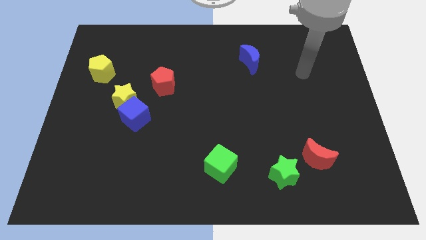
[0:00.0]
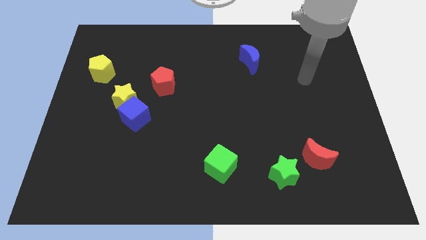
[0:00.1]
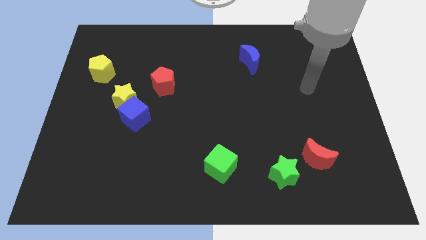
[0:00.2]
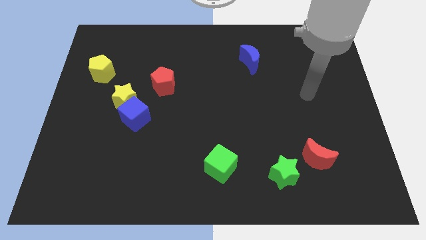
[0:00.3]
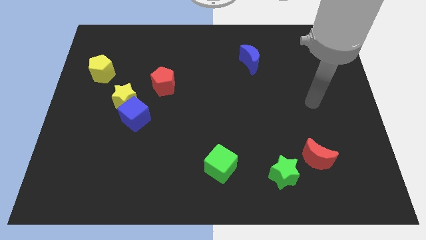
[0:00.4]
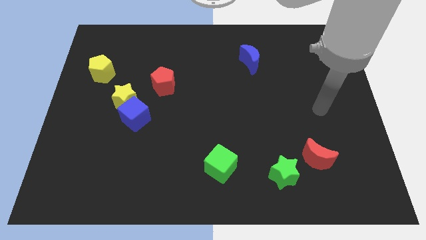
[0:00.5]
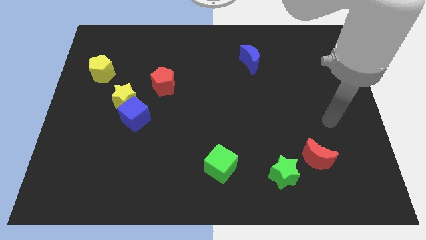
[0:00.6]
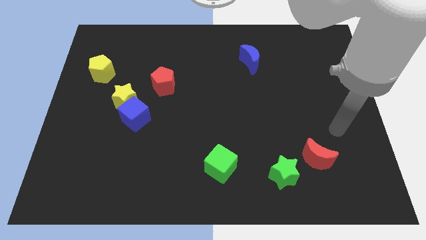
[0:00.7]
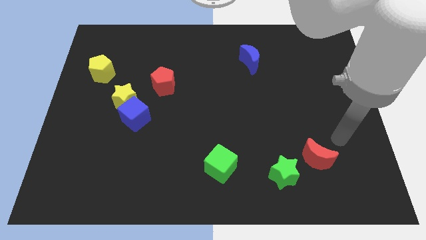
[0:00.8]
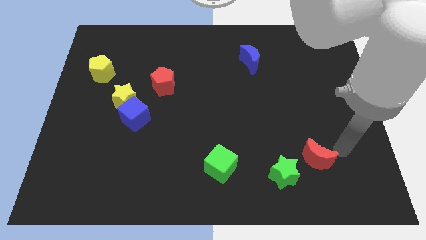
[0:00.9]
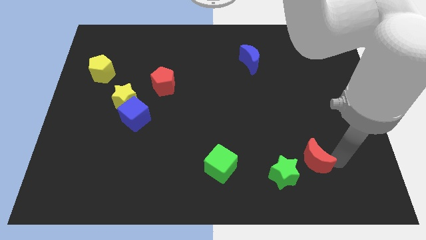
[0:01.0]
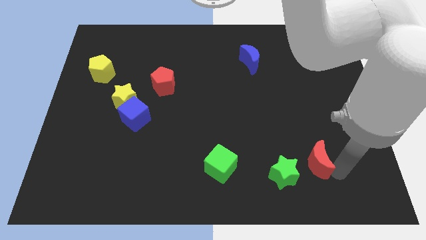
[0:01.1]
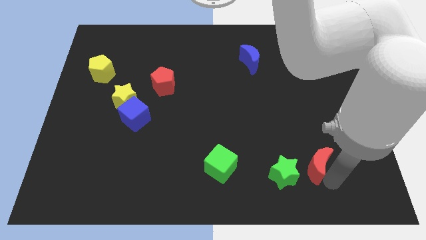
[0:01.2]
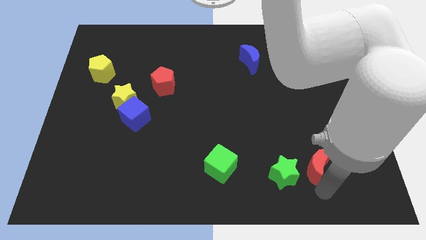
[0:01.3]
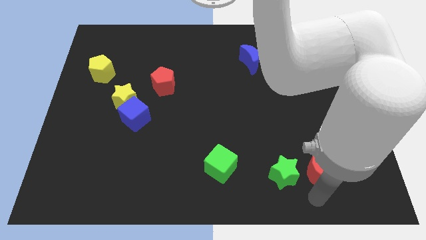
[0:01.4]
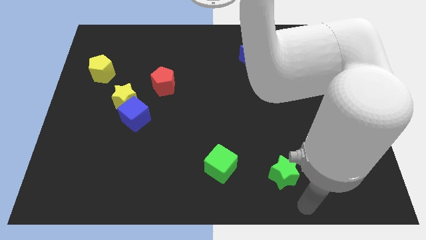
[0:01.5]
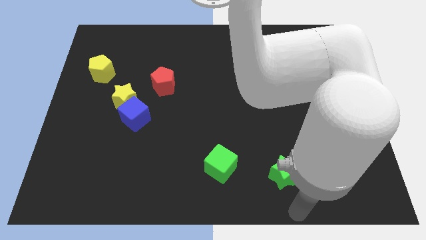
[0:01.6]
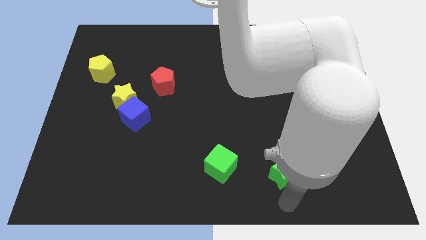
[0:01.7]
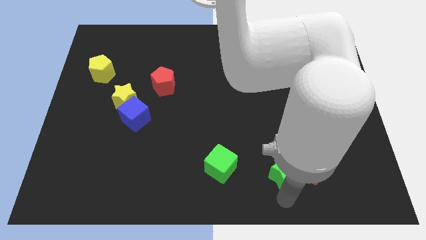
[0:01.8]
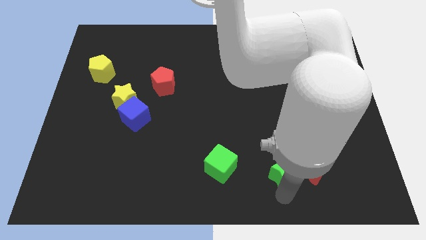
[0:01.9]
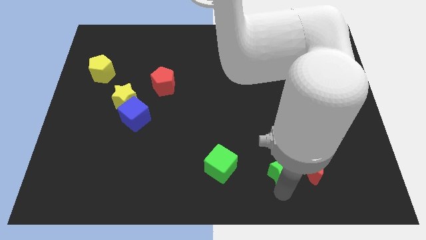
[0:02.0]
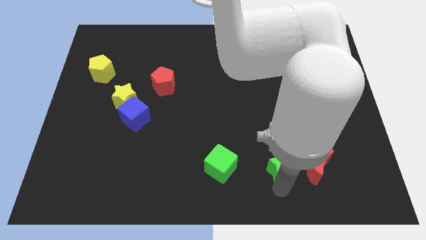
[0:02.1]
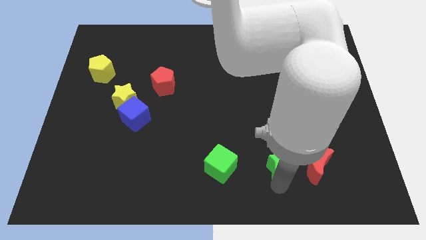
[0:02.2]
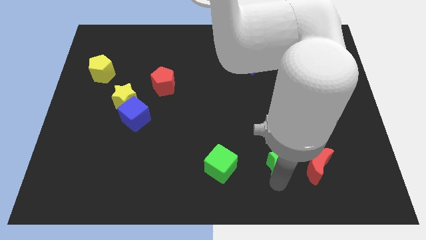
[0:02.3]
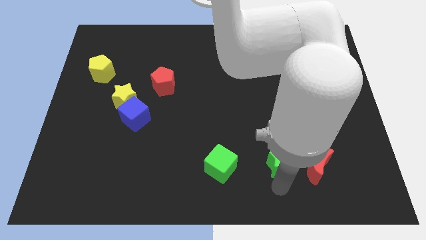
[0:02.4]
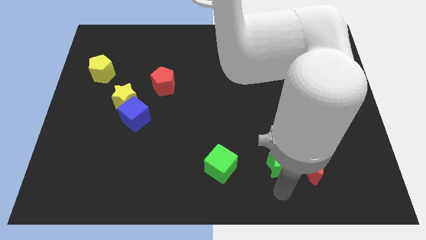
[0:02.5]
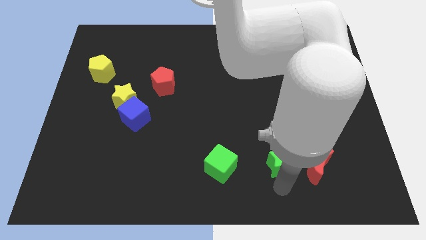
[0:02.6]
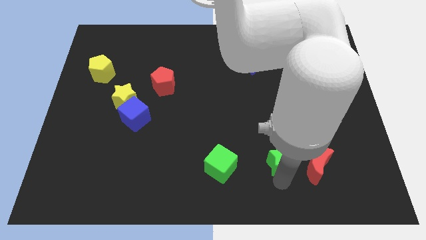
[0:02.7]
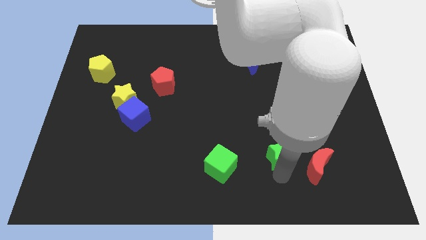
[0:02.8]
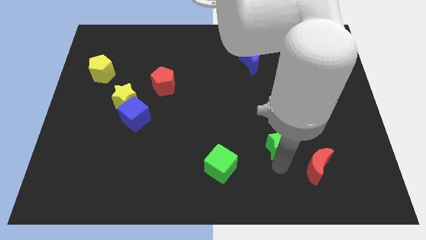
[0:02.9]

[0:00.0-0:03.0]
slide the green star up slightly

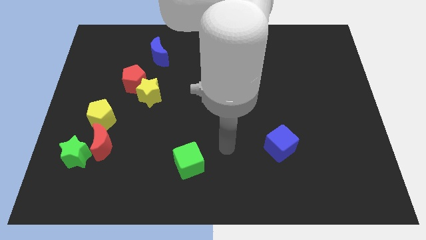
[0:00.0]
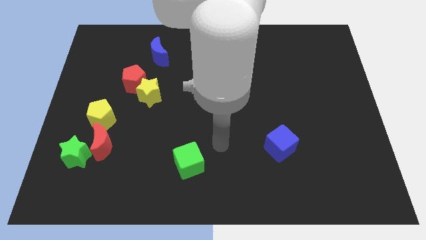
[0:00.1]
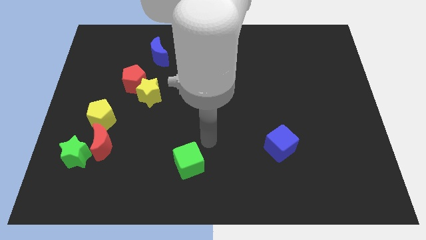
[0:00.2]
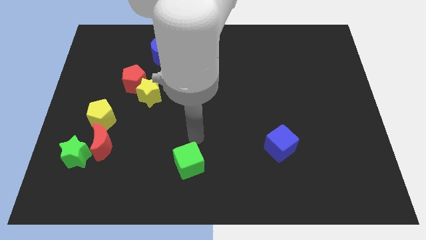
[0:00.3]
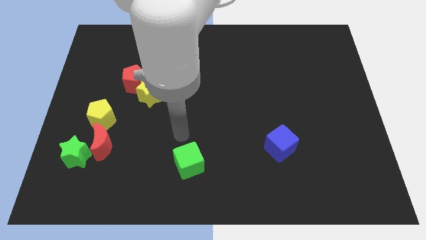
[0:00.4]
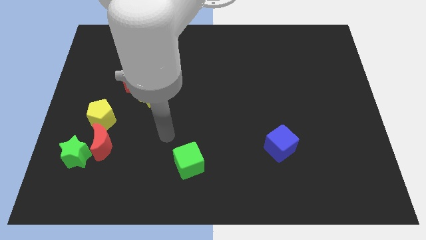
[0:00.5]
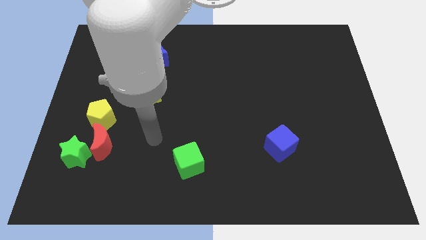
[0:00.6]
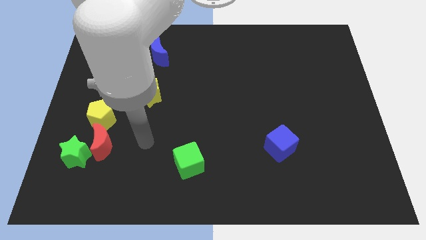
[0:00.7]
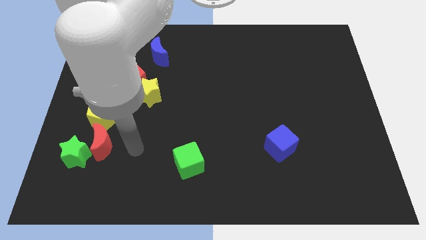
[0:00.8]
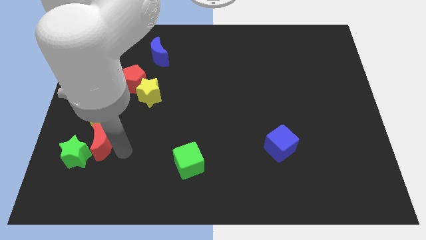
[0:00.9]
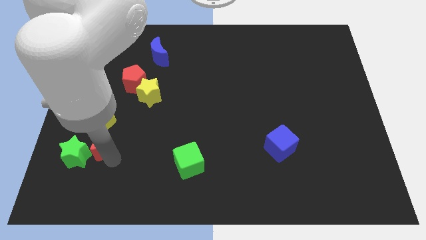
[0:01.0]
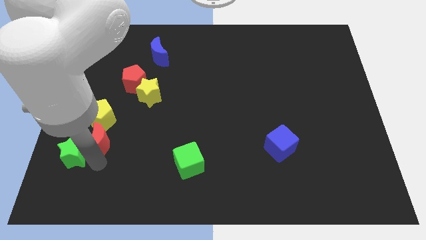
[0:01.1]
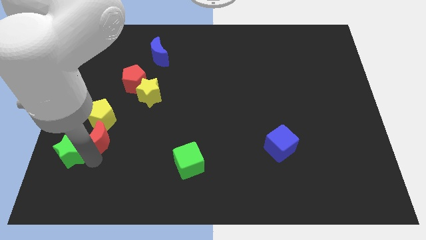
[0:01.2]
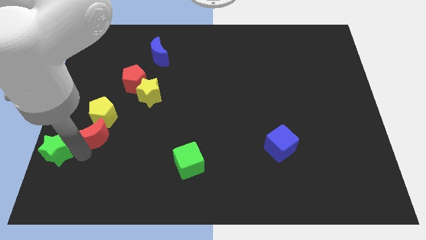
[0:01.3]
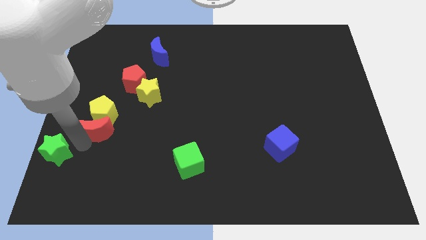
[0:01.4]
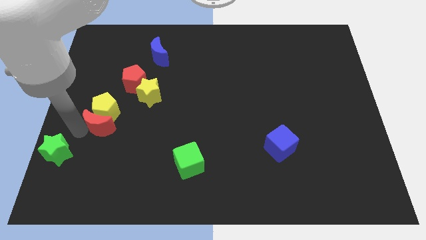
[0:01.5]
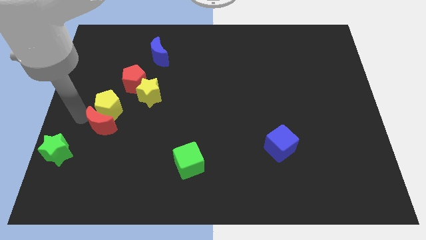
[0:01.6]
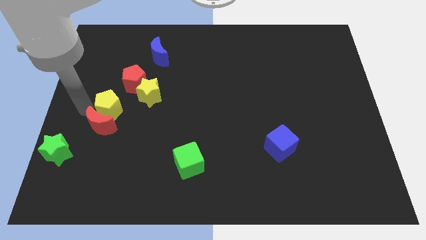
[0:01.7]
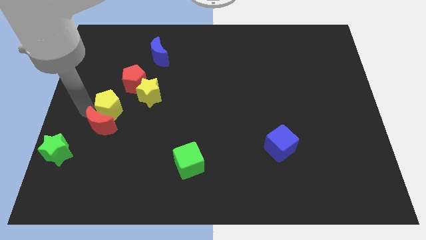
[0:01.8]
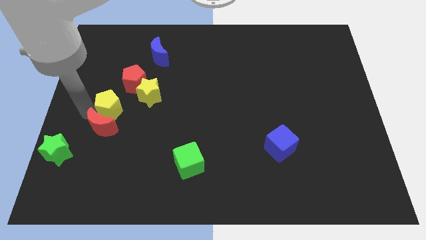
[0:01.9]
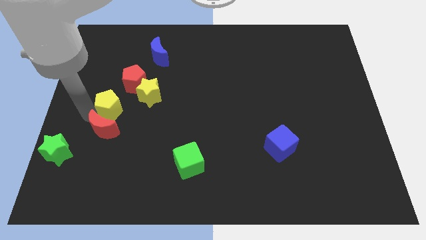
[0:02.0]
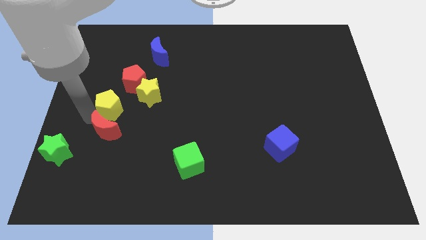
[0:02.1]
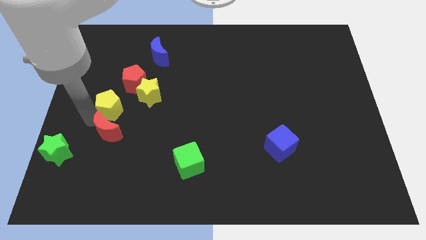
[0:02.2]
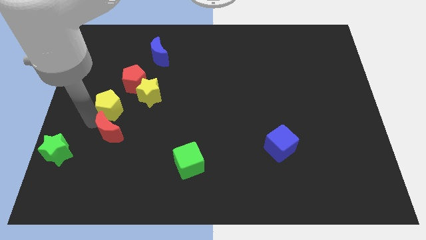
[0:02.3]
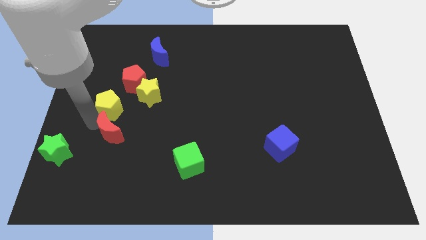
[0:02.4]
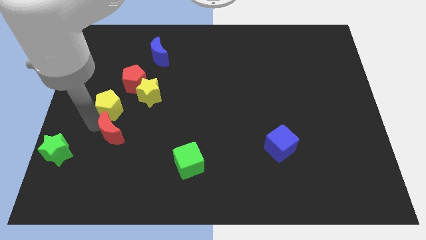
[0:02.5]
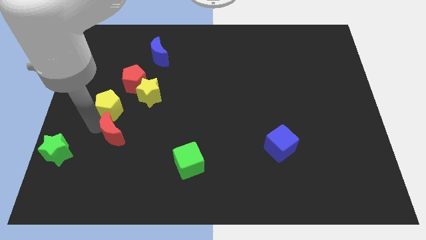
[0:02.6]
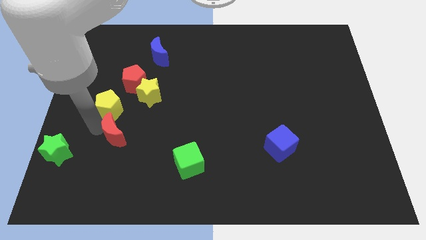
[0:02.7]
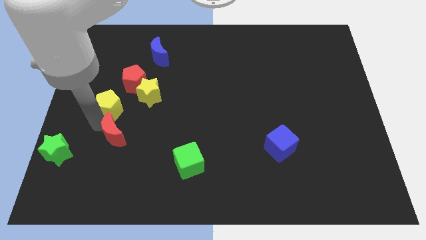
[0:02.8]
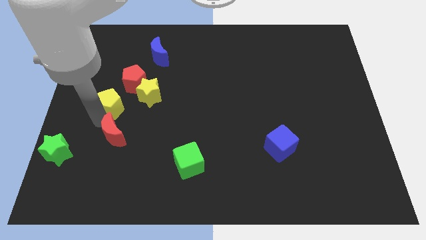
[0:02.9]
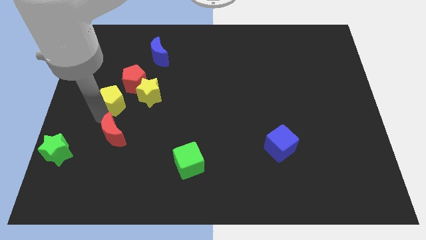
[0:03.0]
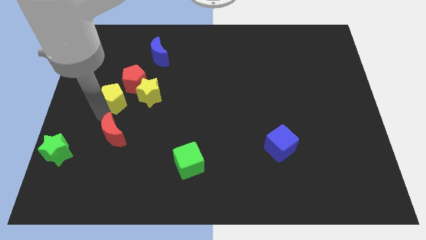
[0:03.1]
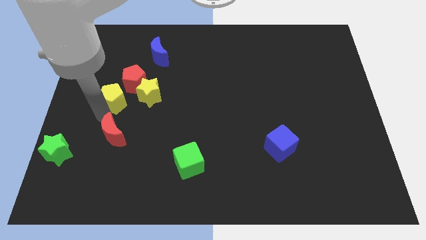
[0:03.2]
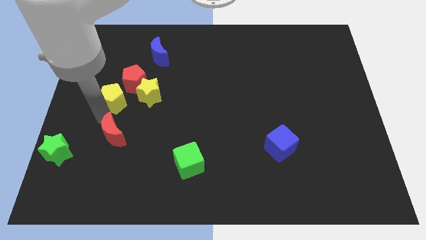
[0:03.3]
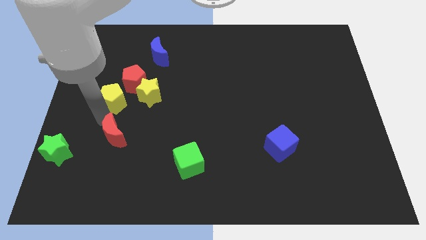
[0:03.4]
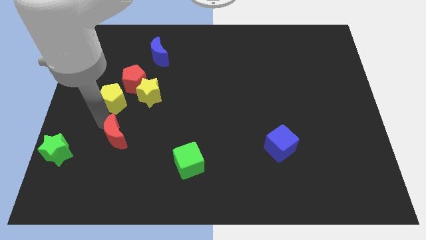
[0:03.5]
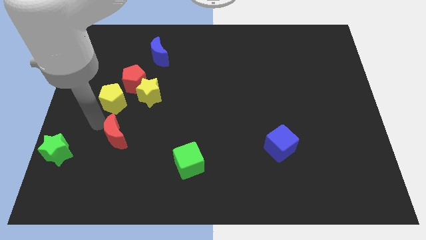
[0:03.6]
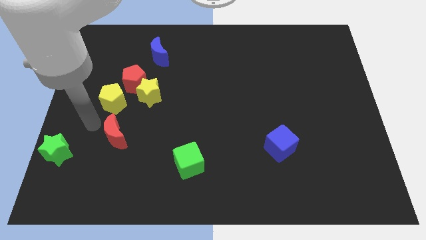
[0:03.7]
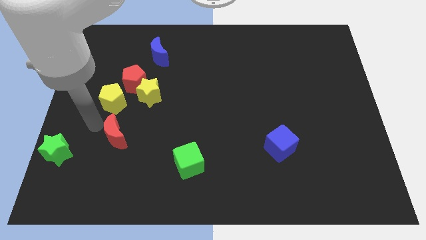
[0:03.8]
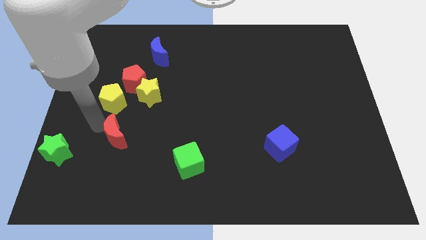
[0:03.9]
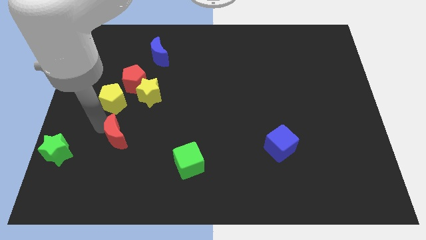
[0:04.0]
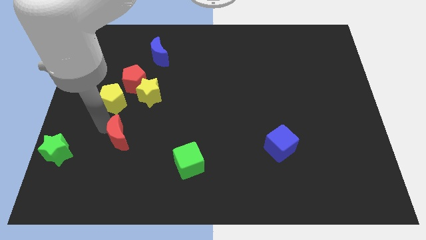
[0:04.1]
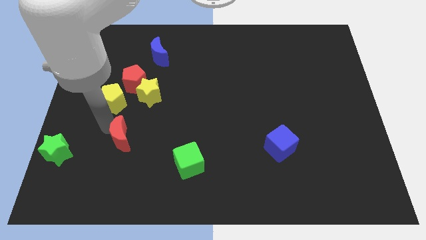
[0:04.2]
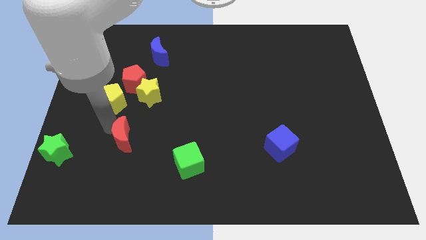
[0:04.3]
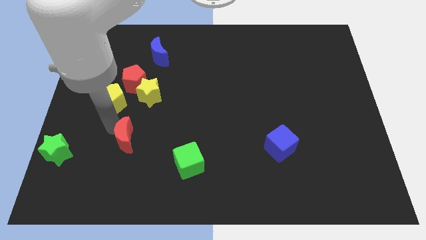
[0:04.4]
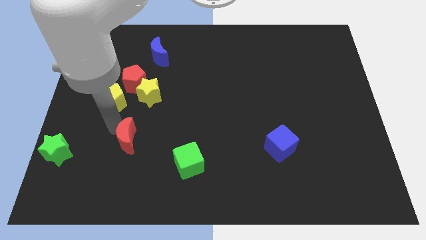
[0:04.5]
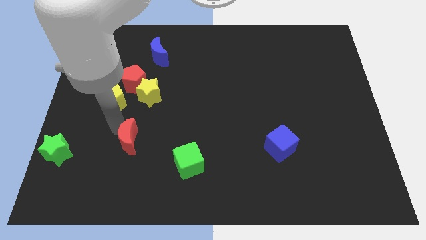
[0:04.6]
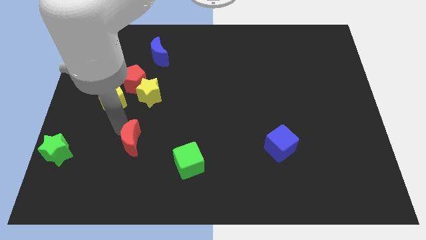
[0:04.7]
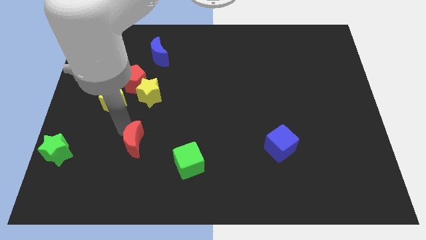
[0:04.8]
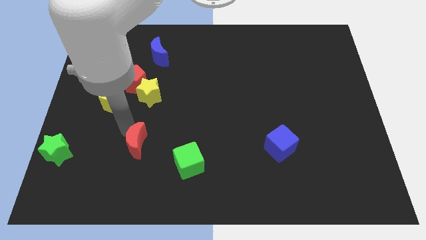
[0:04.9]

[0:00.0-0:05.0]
move the red moon a bit to the right
